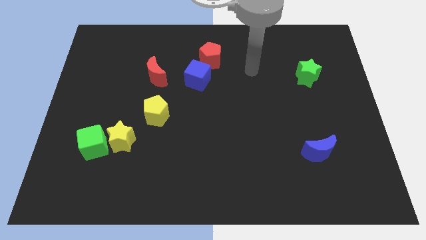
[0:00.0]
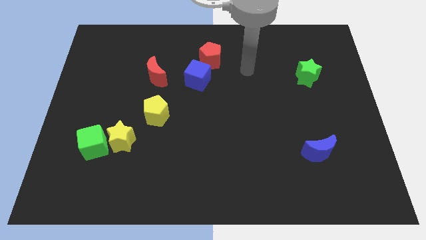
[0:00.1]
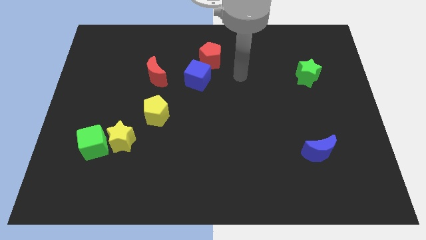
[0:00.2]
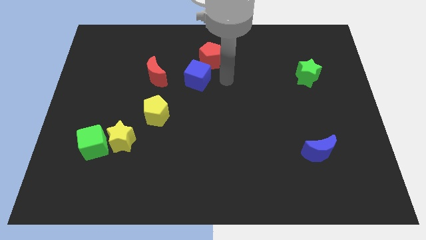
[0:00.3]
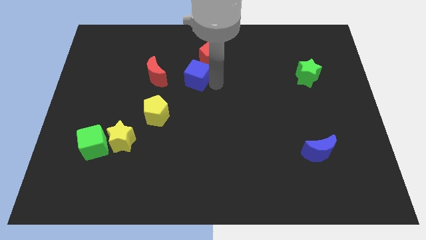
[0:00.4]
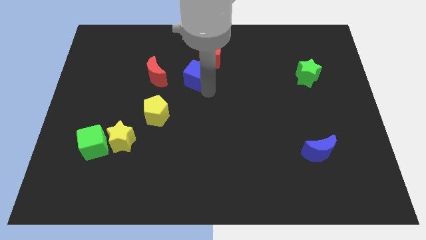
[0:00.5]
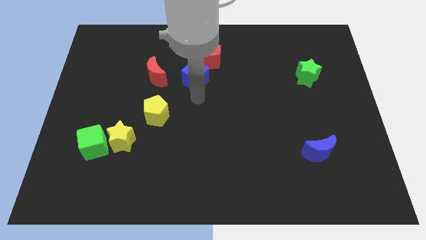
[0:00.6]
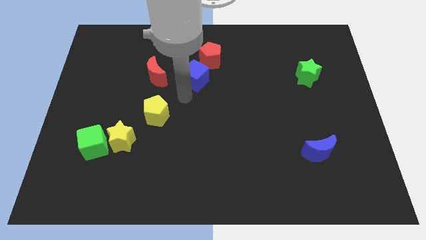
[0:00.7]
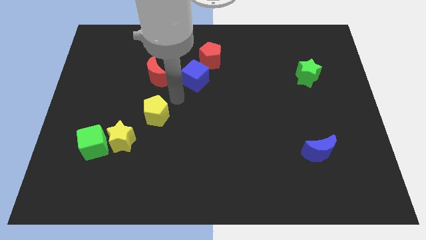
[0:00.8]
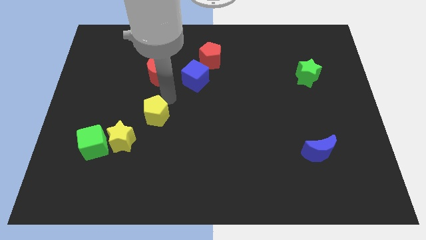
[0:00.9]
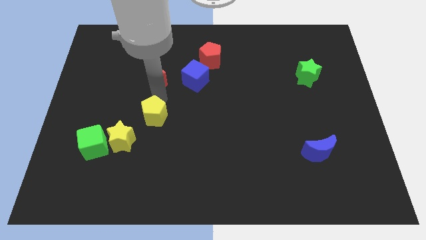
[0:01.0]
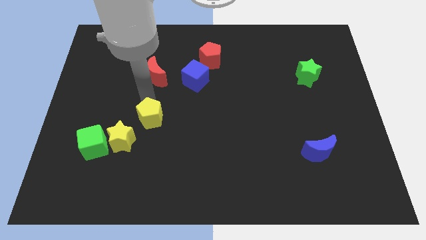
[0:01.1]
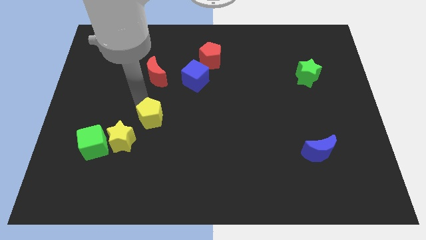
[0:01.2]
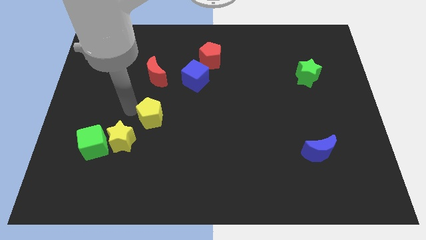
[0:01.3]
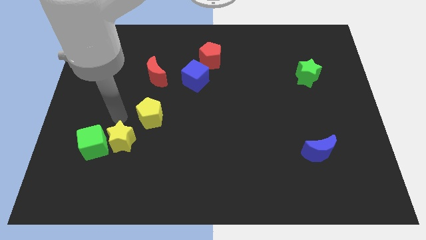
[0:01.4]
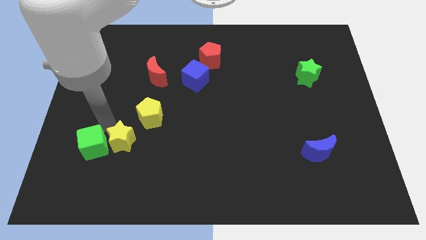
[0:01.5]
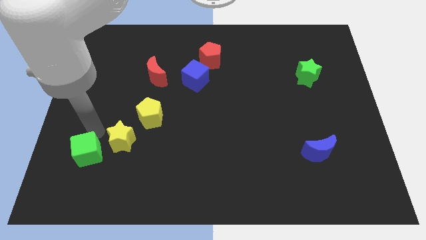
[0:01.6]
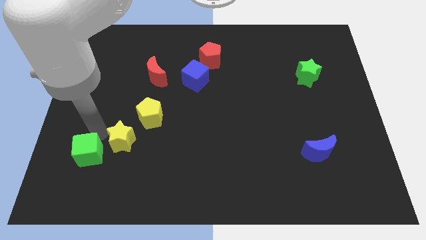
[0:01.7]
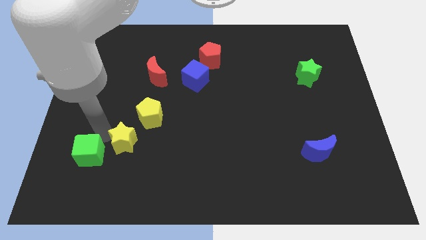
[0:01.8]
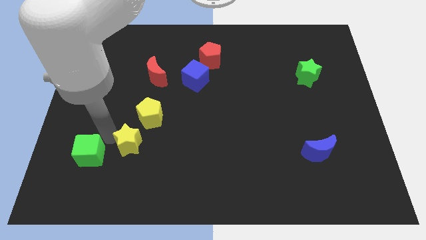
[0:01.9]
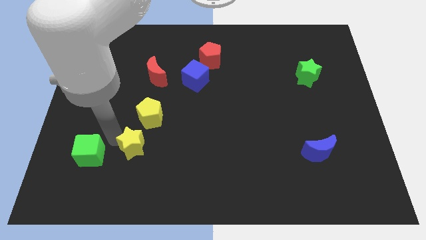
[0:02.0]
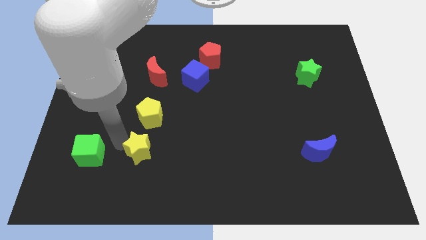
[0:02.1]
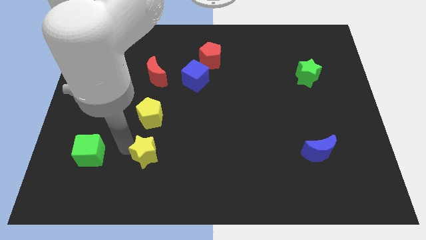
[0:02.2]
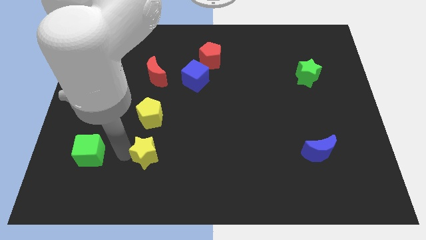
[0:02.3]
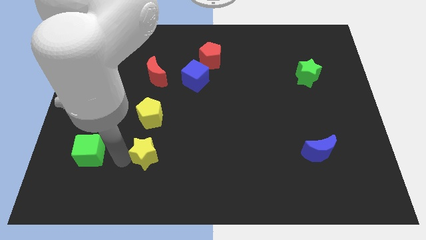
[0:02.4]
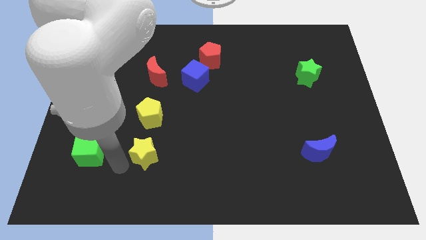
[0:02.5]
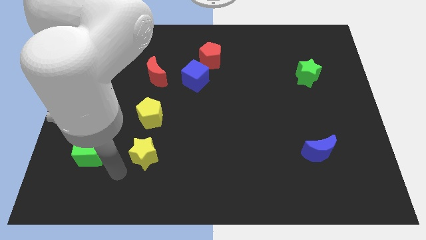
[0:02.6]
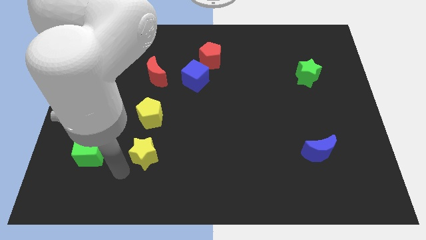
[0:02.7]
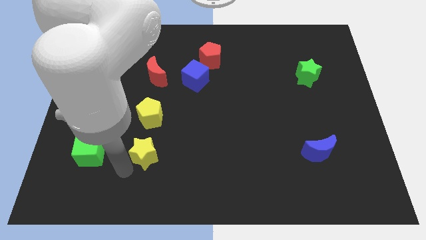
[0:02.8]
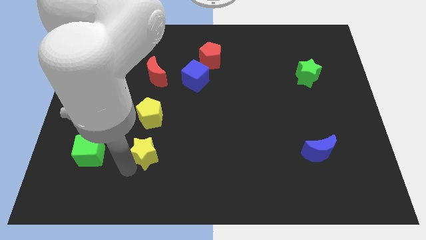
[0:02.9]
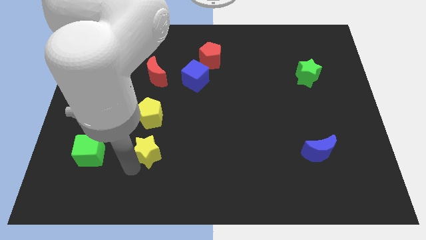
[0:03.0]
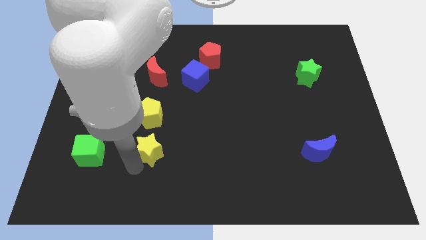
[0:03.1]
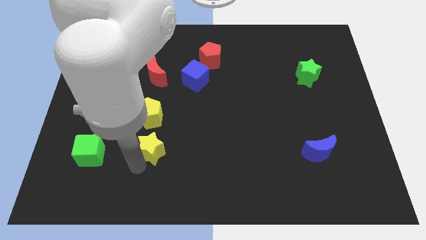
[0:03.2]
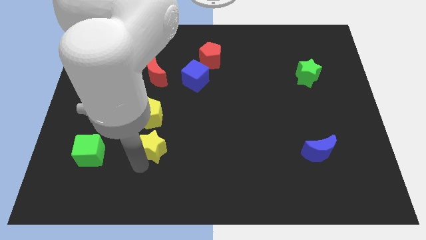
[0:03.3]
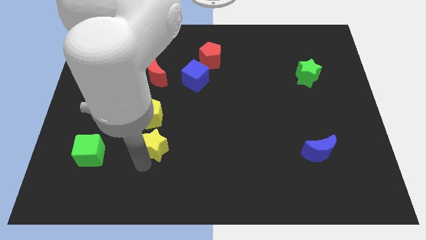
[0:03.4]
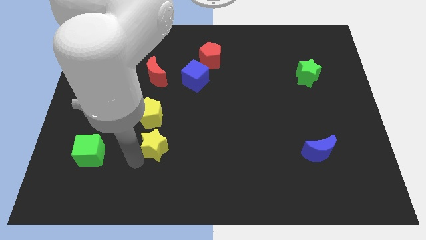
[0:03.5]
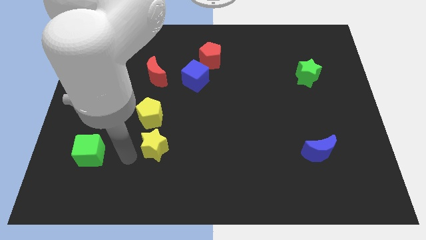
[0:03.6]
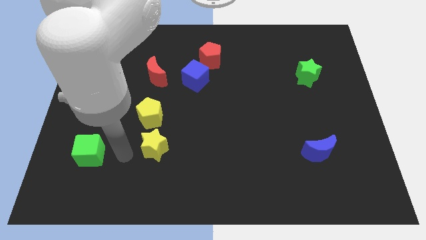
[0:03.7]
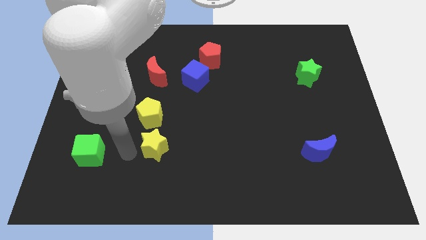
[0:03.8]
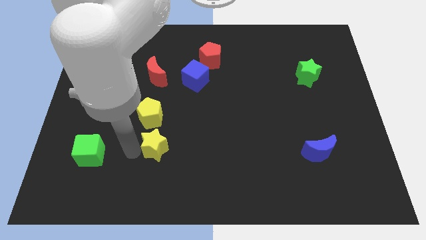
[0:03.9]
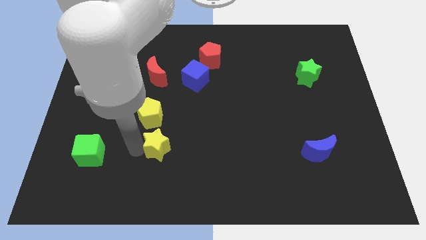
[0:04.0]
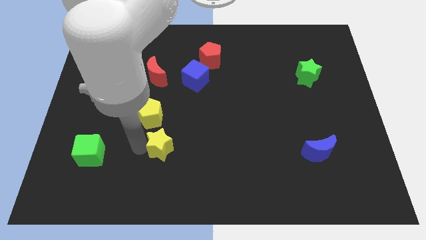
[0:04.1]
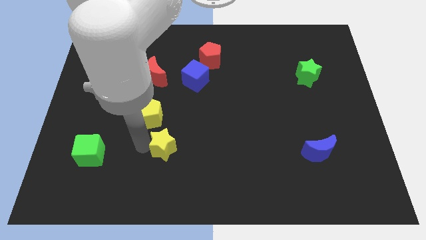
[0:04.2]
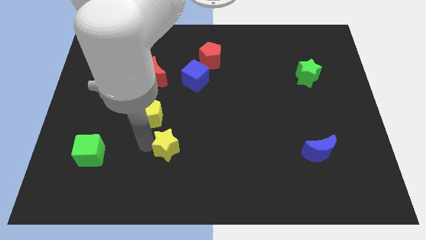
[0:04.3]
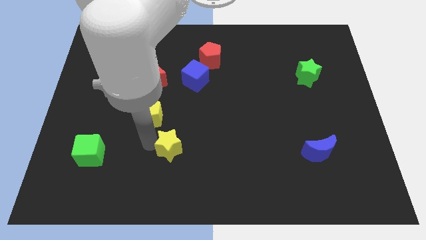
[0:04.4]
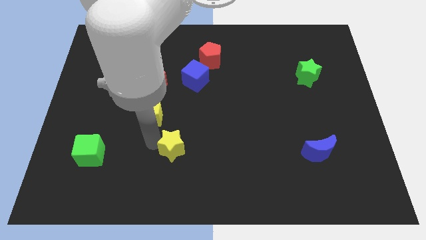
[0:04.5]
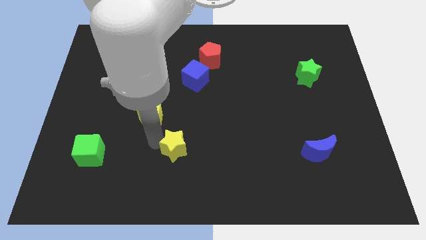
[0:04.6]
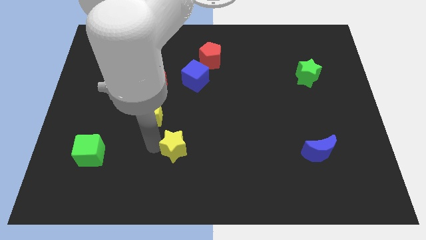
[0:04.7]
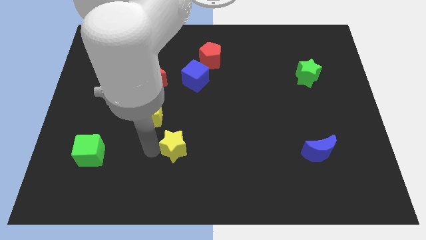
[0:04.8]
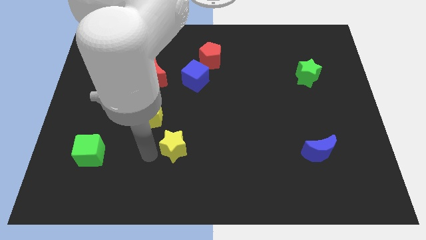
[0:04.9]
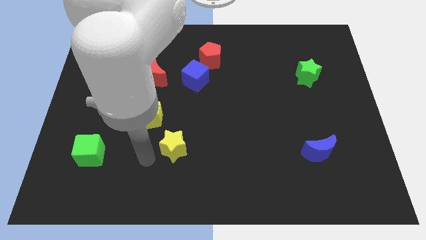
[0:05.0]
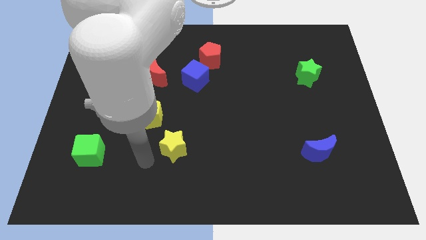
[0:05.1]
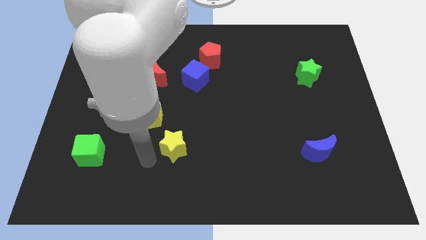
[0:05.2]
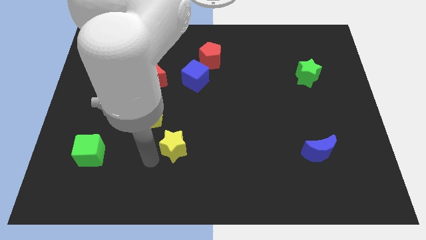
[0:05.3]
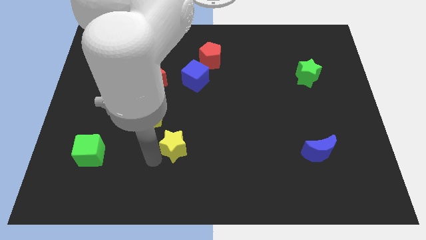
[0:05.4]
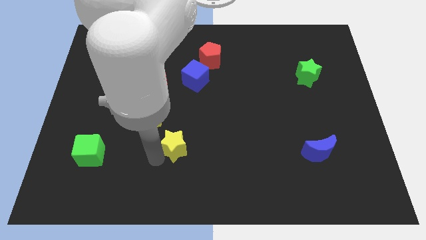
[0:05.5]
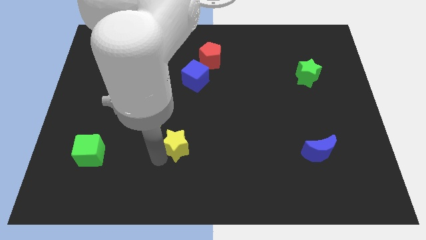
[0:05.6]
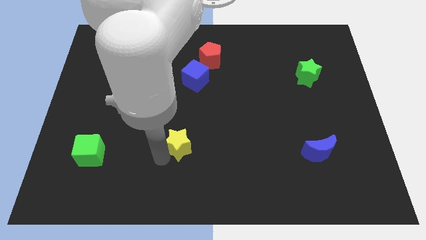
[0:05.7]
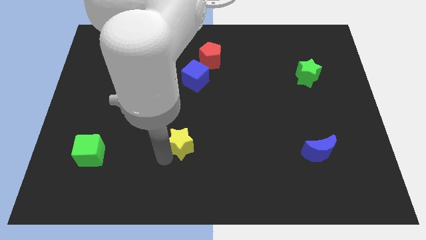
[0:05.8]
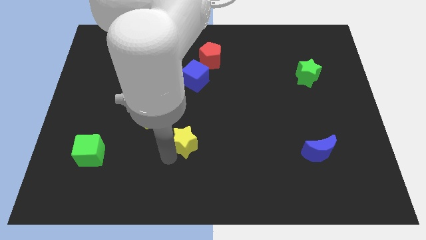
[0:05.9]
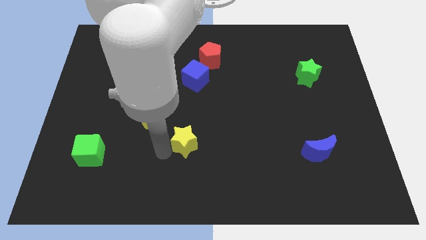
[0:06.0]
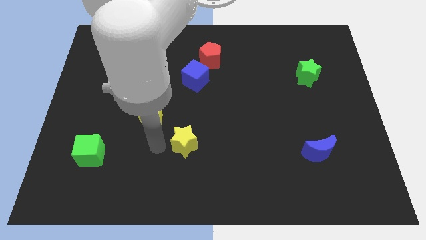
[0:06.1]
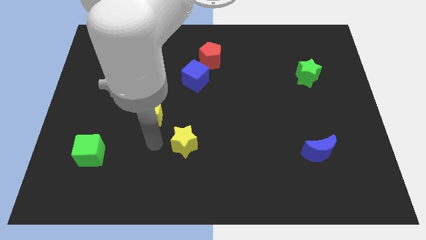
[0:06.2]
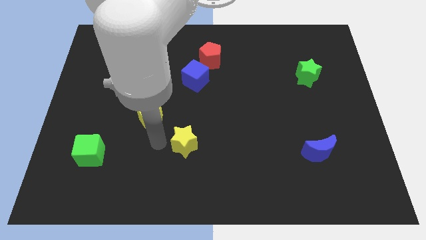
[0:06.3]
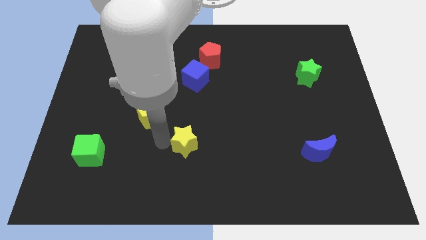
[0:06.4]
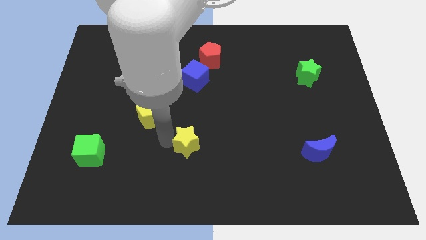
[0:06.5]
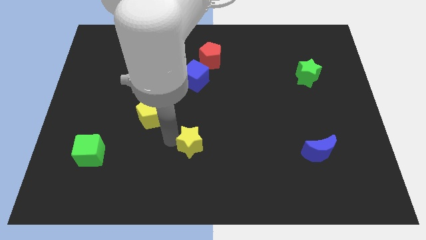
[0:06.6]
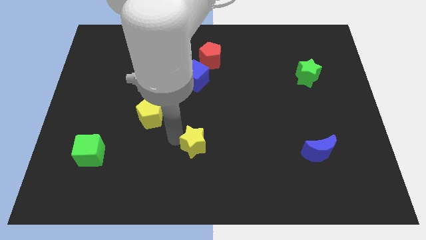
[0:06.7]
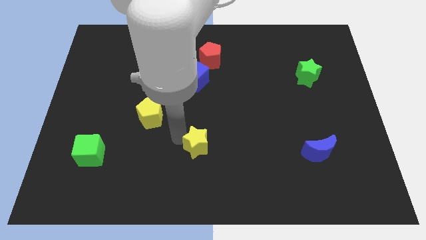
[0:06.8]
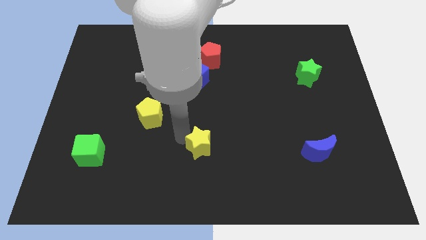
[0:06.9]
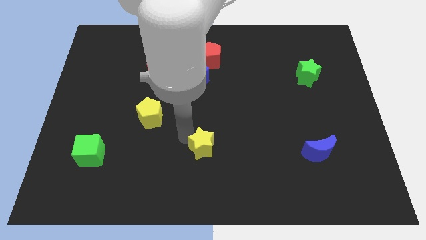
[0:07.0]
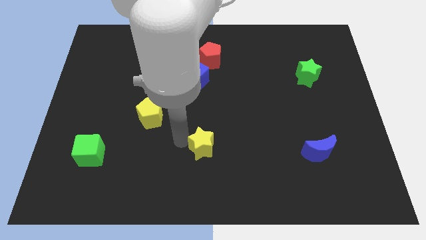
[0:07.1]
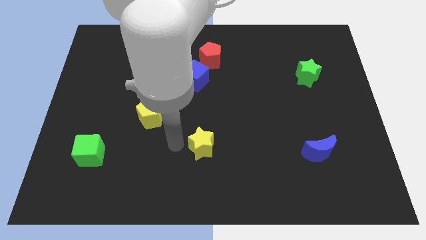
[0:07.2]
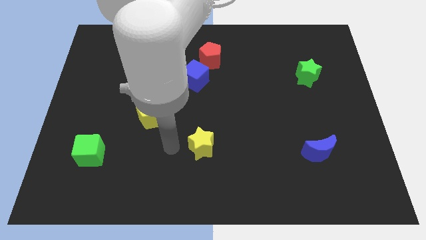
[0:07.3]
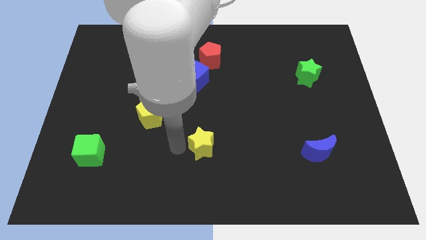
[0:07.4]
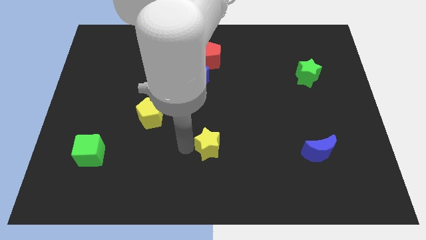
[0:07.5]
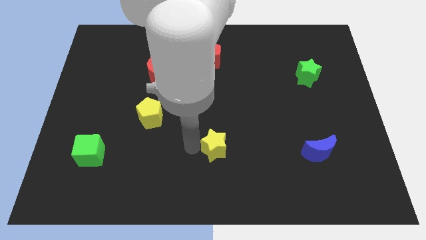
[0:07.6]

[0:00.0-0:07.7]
slide the yellow star right

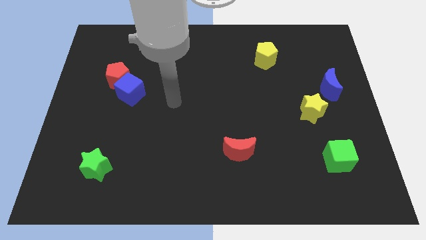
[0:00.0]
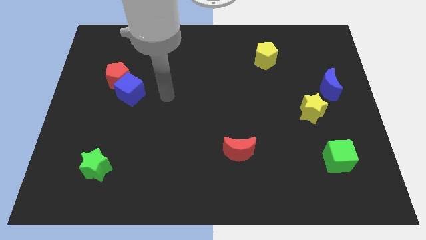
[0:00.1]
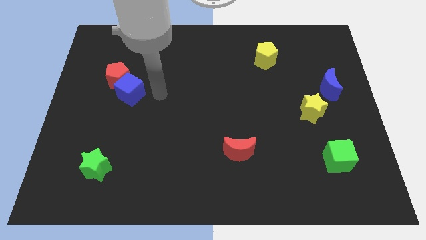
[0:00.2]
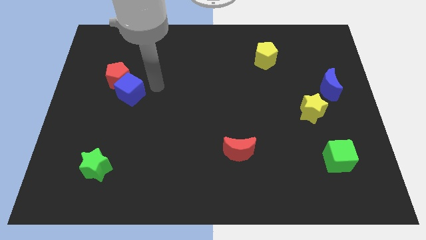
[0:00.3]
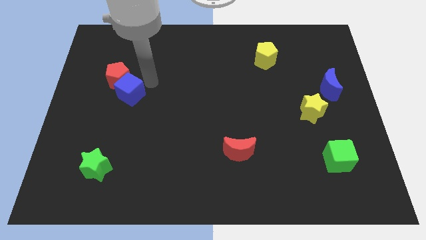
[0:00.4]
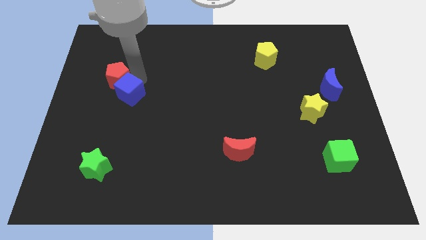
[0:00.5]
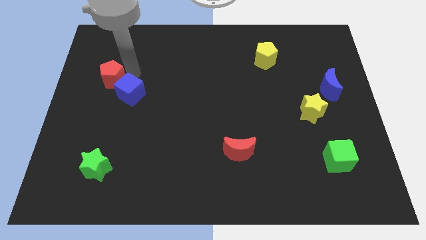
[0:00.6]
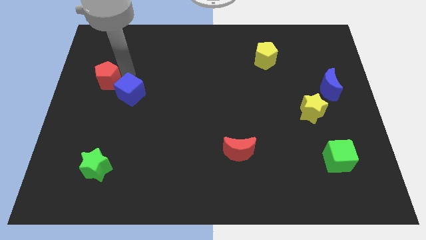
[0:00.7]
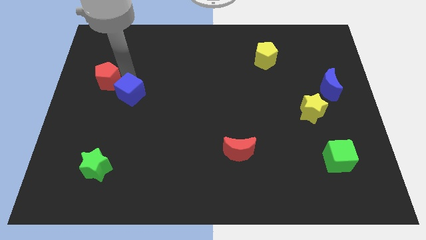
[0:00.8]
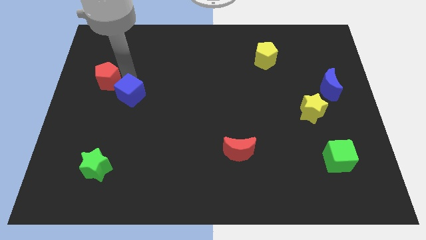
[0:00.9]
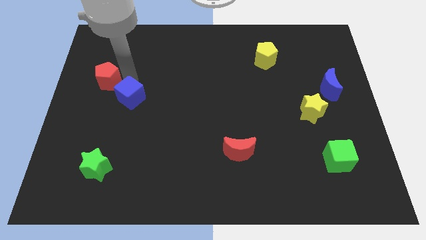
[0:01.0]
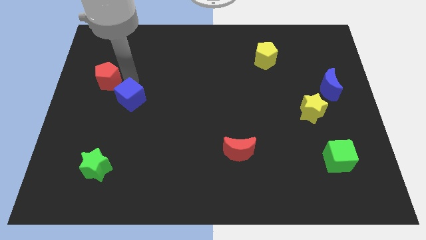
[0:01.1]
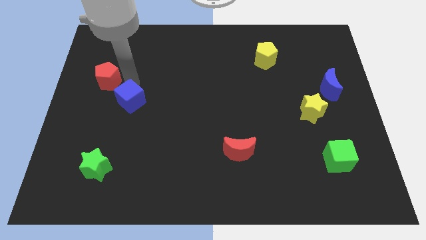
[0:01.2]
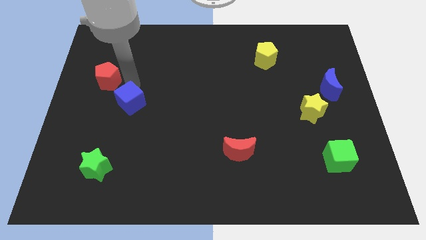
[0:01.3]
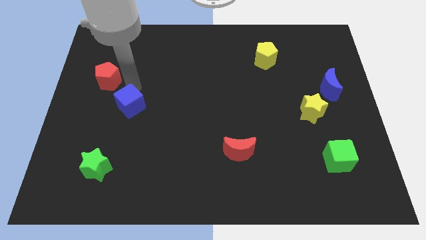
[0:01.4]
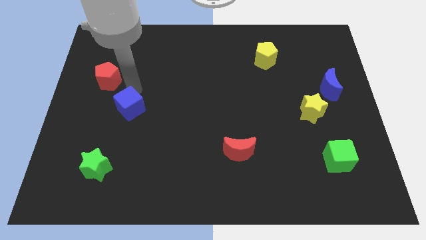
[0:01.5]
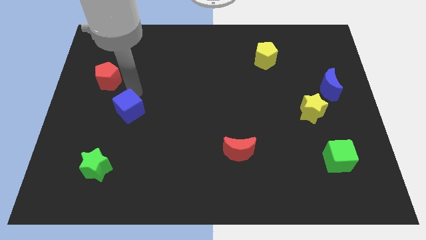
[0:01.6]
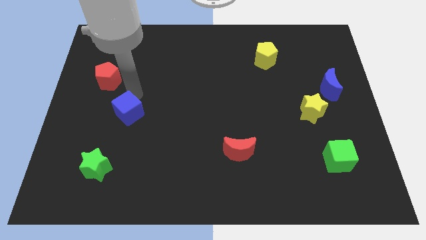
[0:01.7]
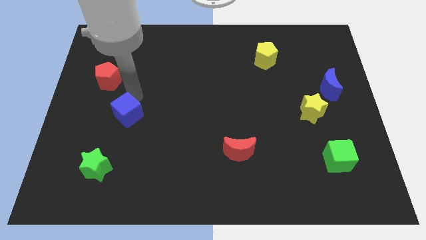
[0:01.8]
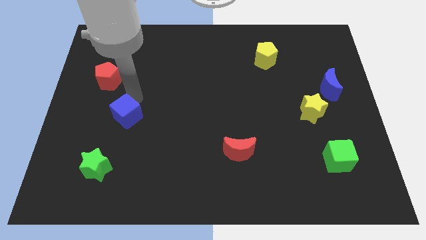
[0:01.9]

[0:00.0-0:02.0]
move the blue cube somewhat downwards
